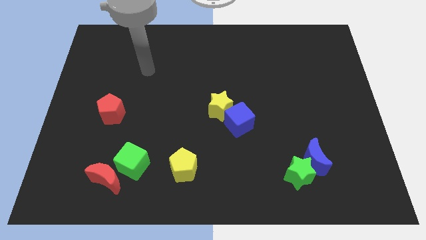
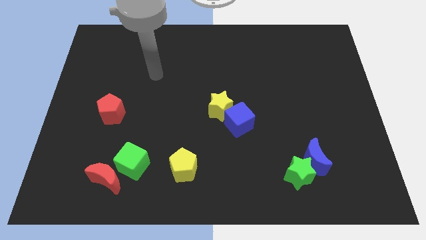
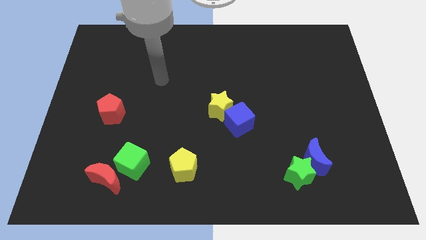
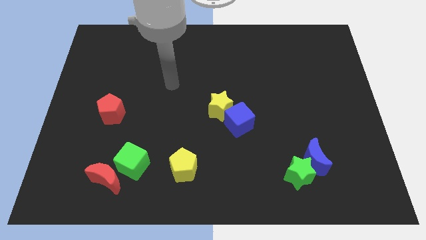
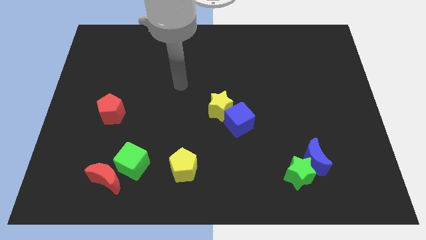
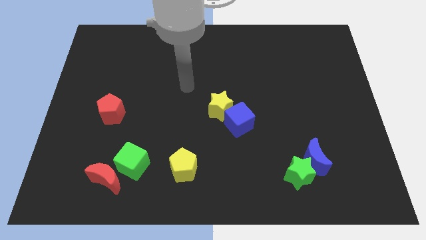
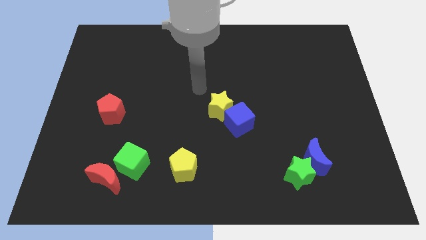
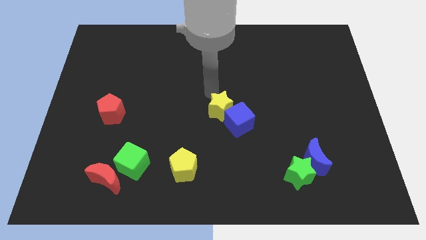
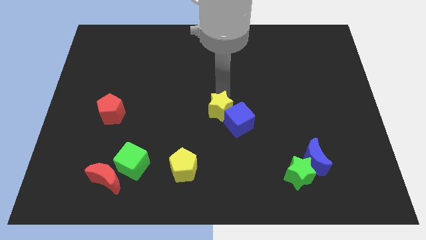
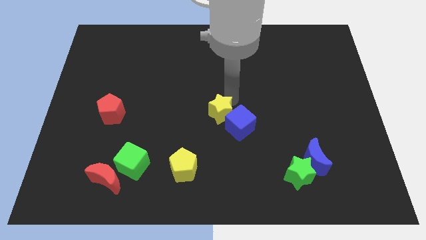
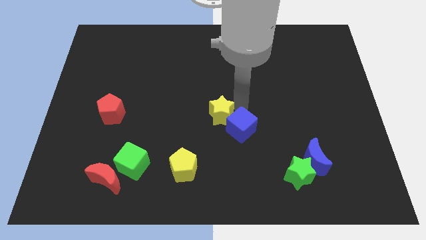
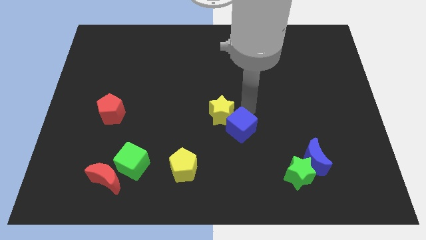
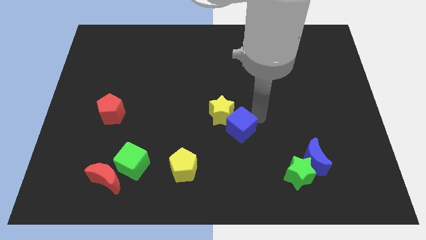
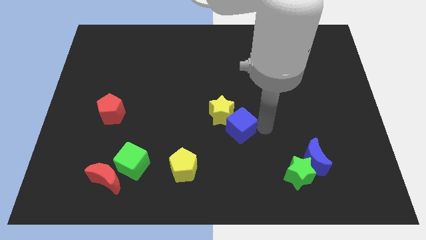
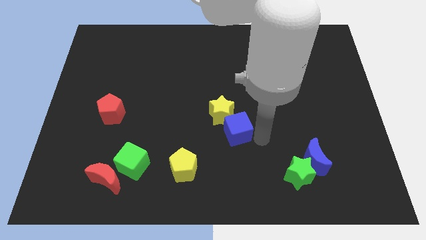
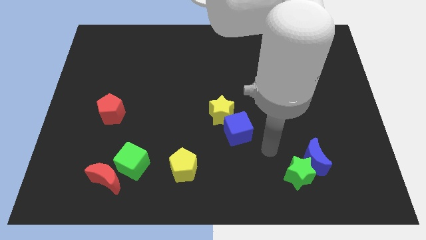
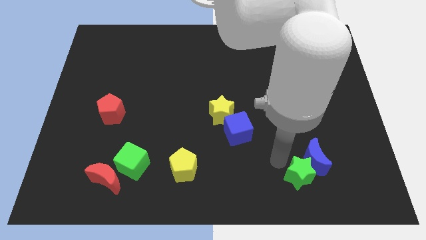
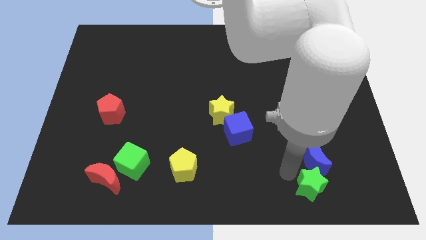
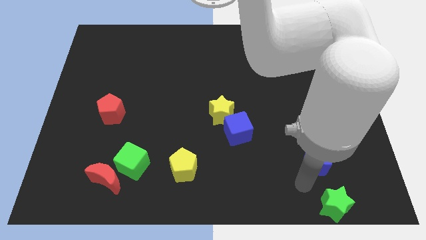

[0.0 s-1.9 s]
move the blue moon away from the green star

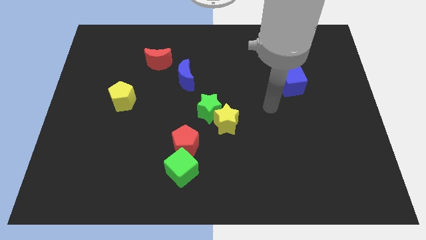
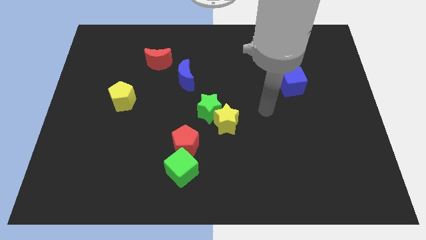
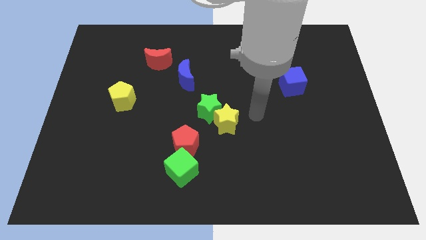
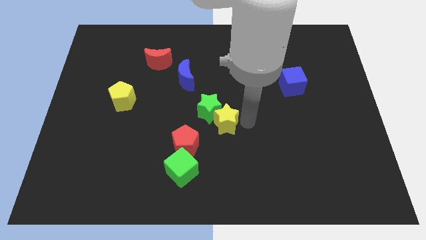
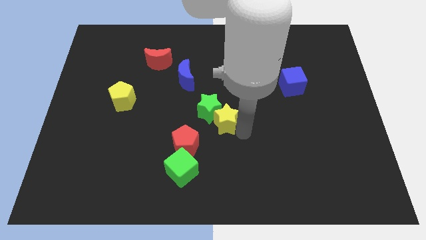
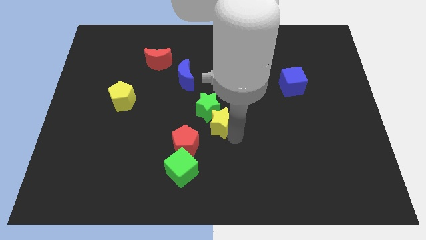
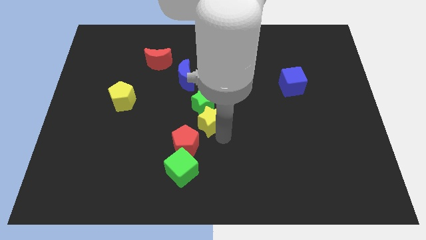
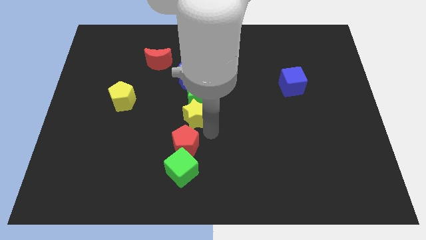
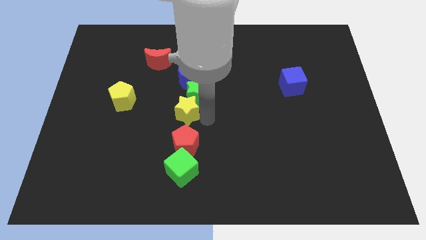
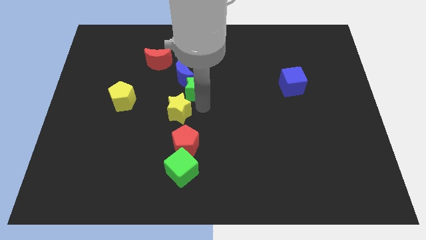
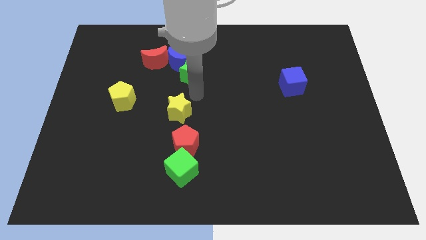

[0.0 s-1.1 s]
separate the yellow star from the green star

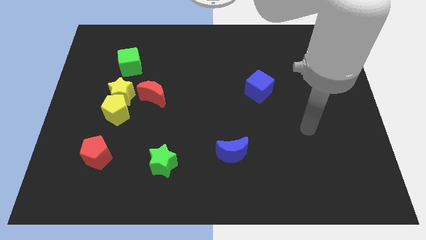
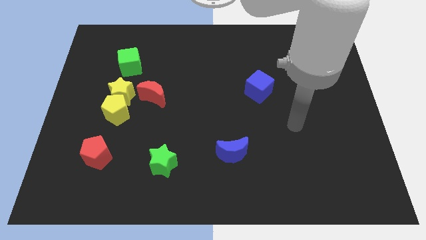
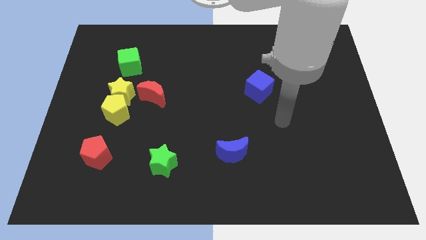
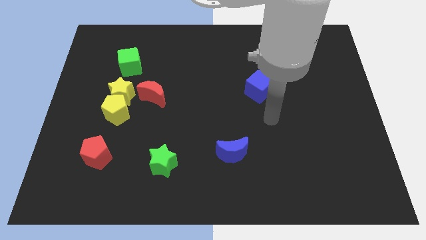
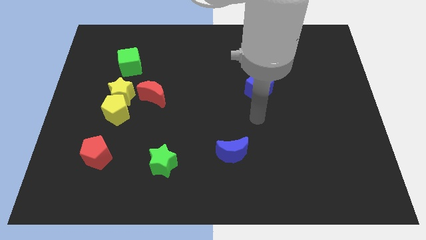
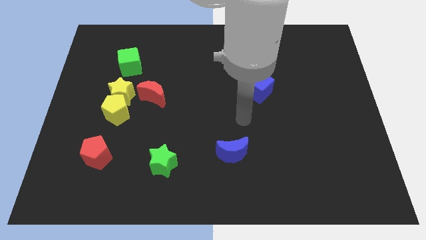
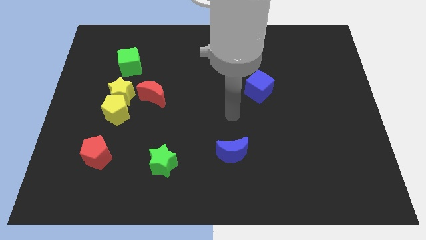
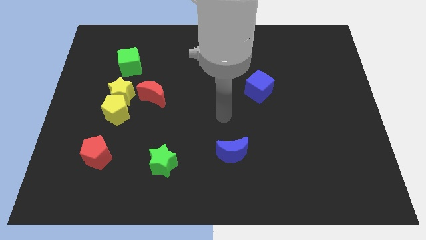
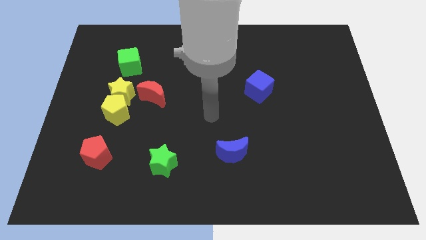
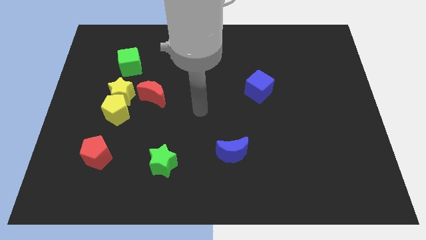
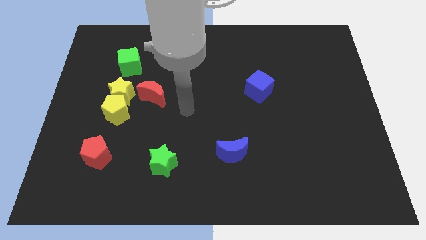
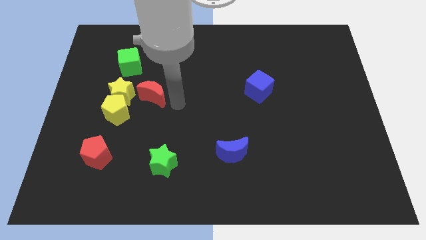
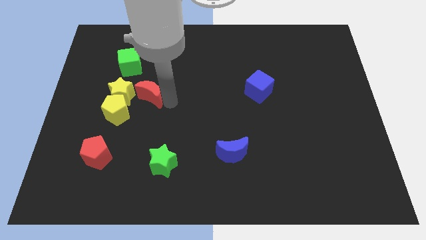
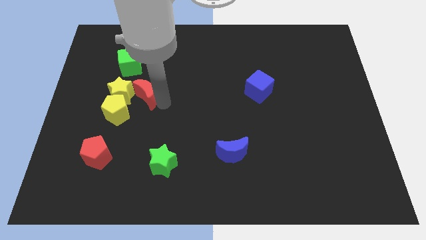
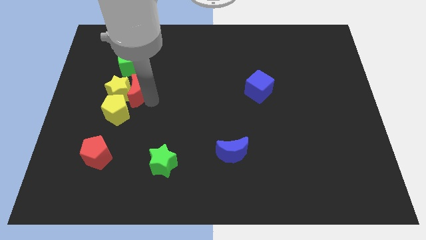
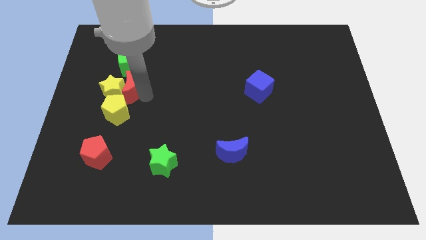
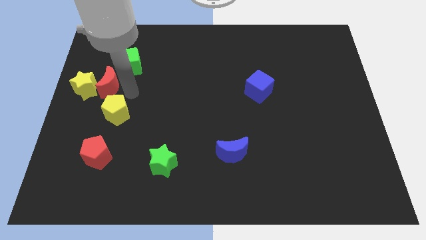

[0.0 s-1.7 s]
move the yellow pentagon away from the yellow star and red moon

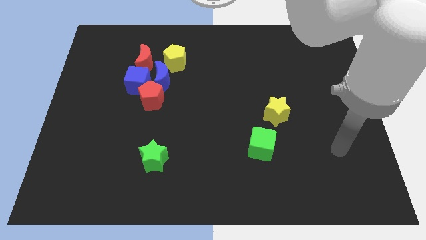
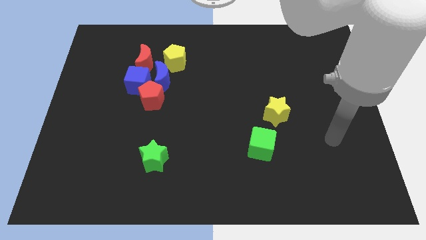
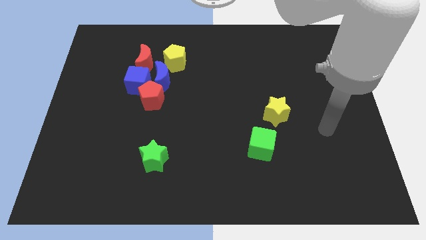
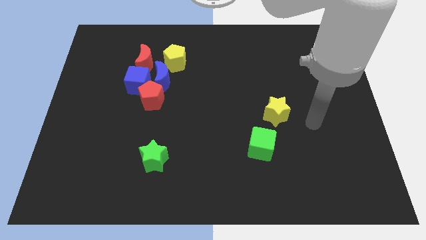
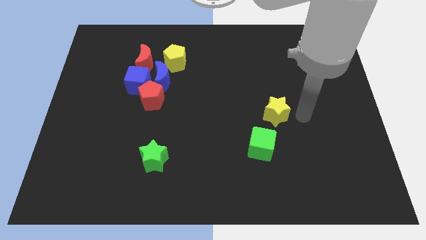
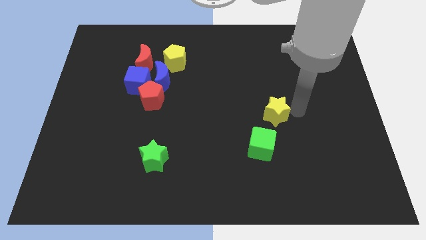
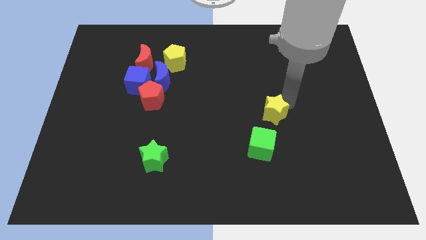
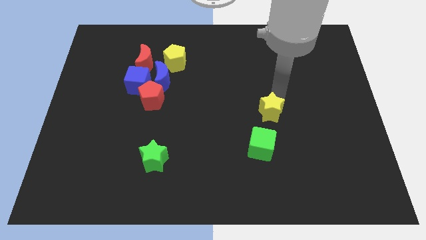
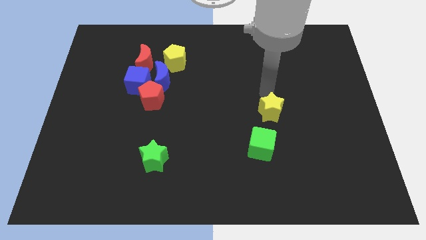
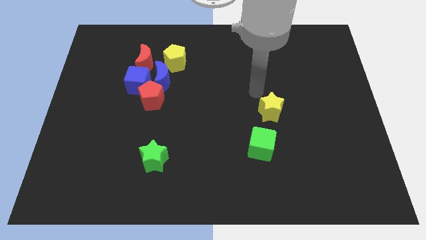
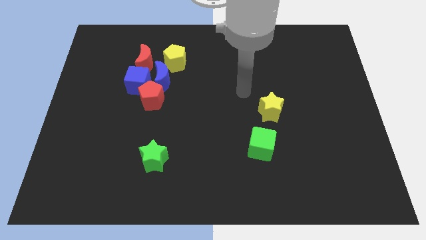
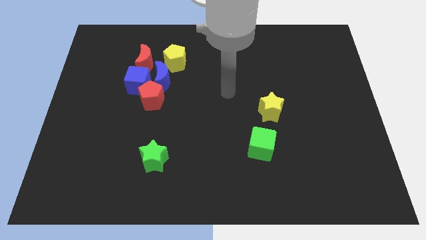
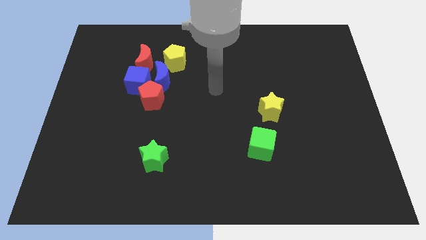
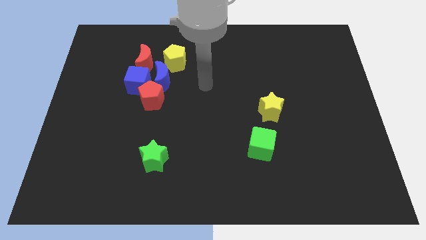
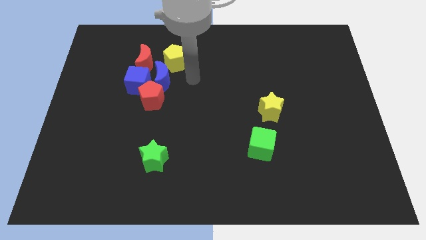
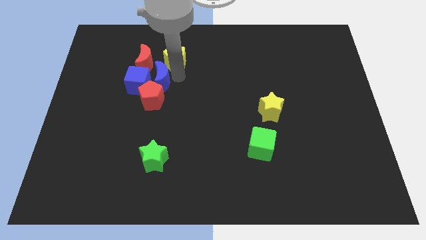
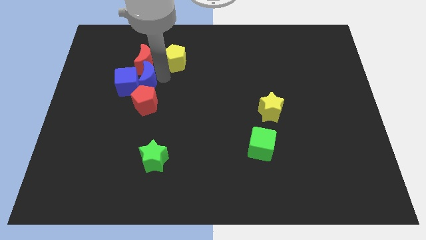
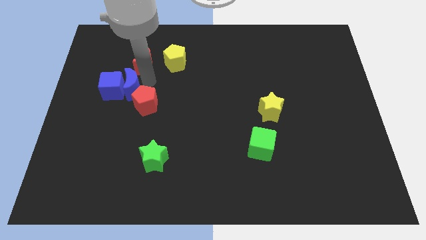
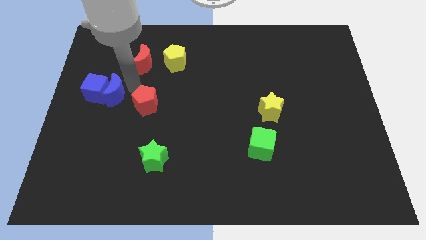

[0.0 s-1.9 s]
separate the red pentagon from the blue cube and blue moon

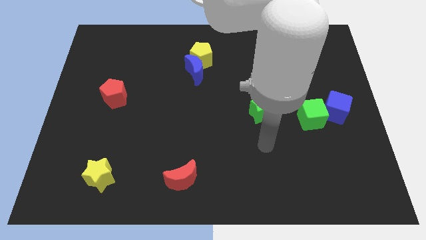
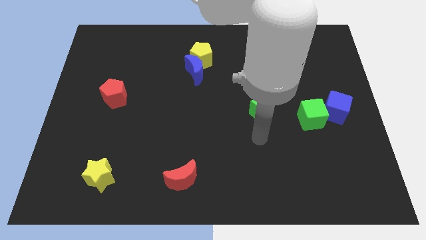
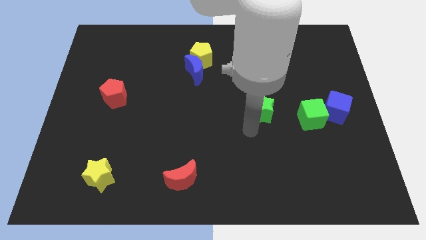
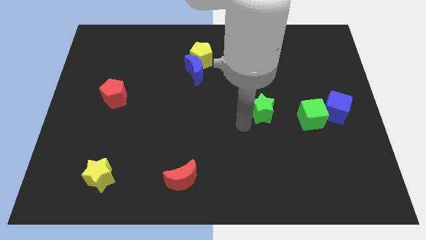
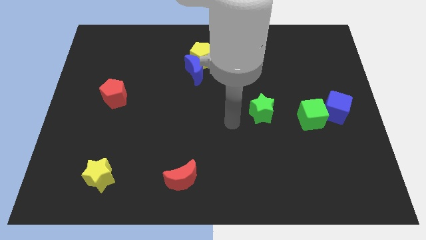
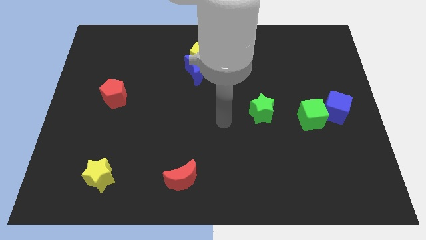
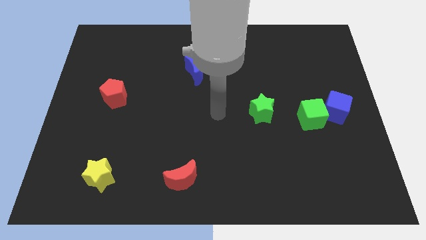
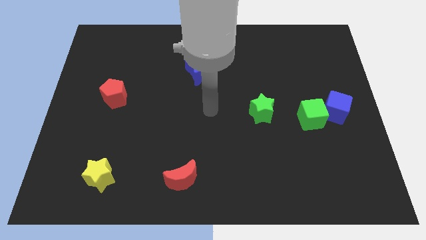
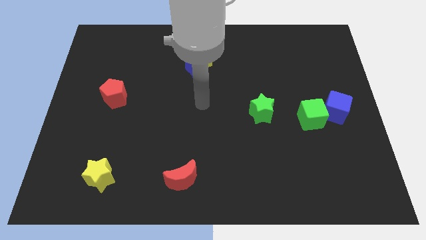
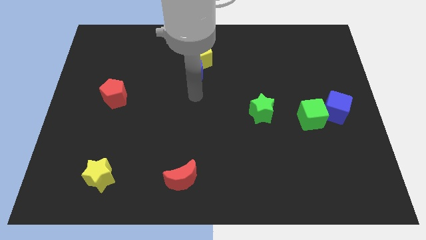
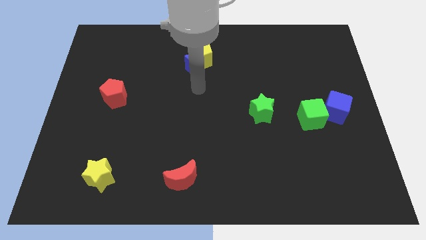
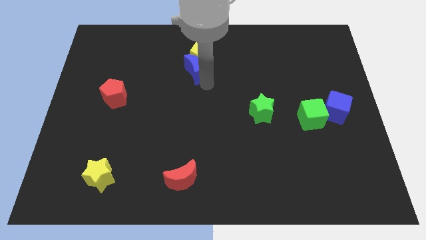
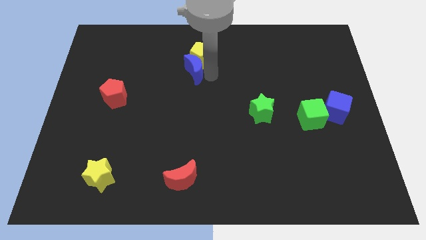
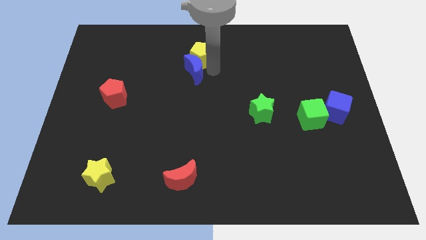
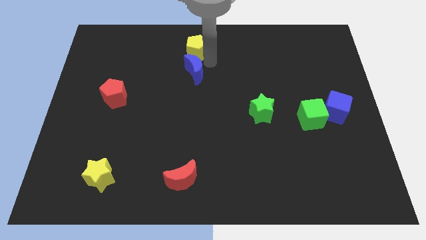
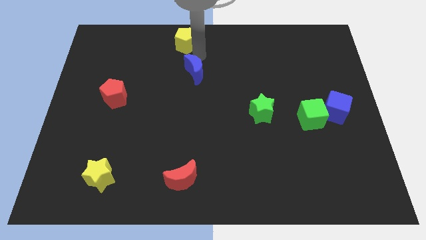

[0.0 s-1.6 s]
move the blue moon away from the yellow pentagon

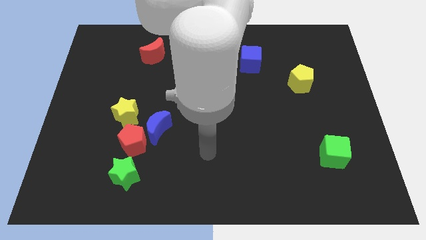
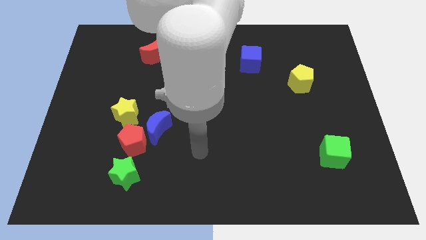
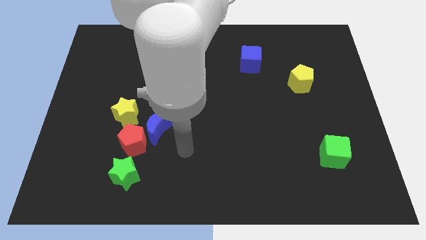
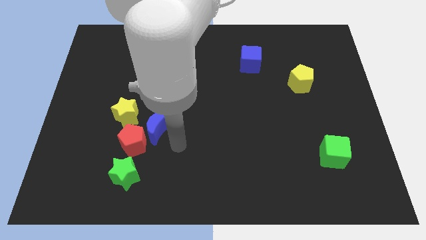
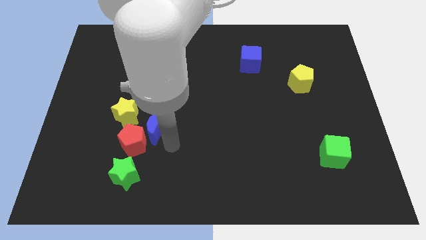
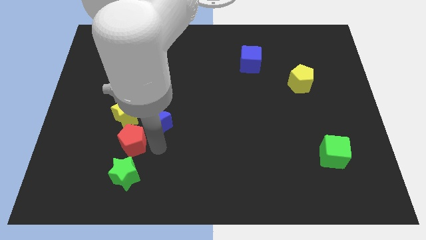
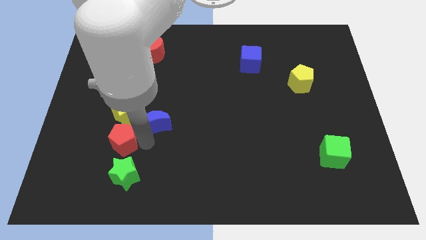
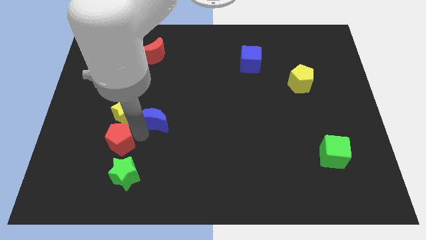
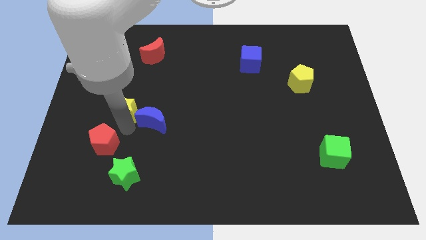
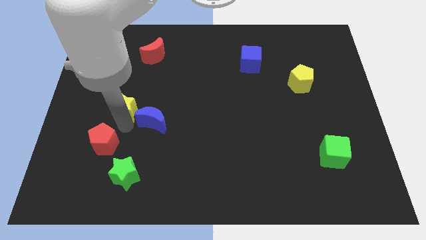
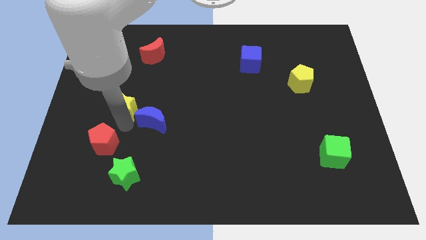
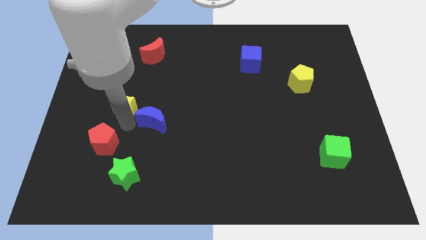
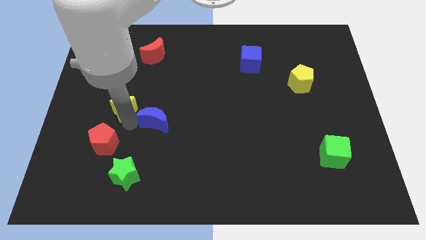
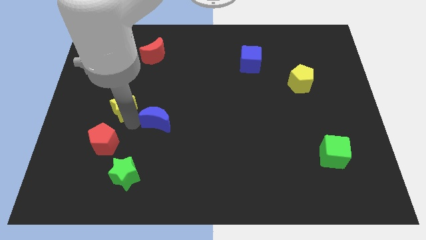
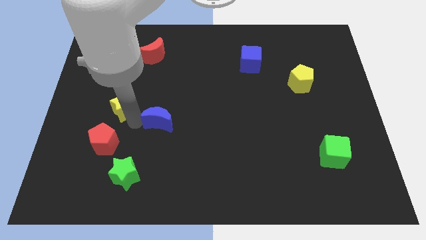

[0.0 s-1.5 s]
separate the blue moon from the red pentagon and yellow star
